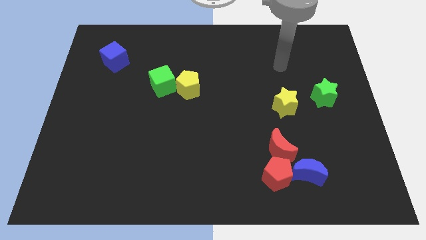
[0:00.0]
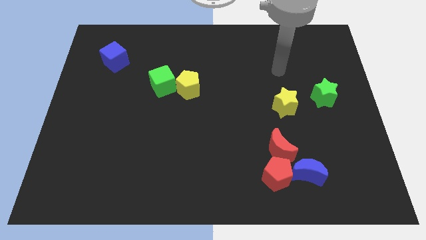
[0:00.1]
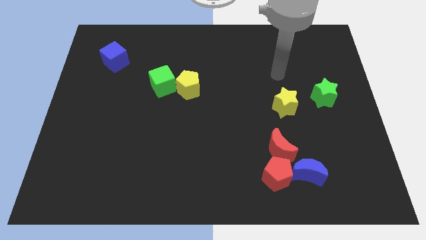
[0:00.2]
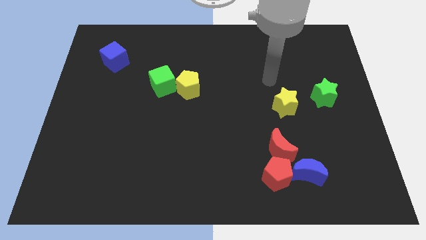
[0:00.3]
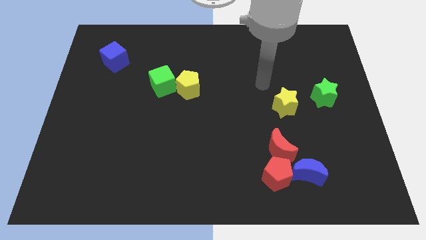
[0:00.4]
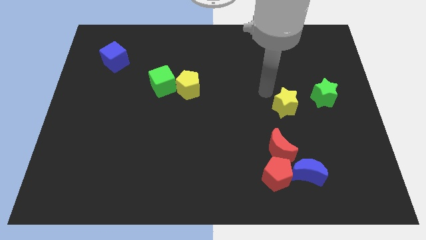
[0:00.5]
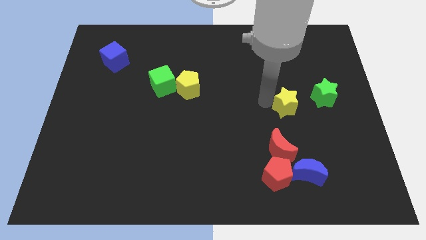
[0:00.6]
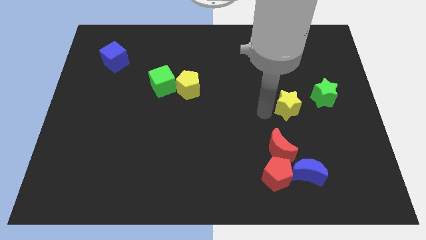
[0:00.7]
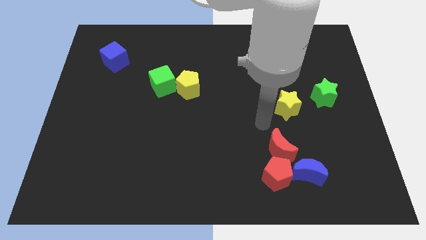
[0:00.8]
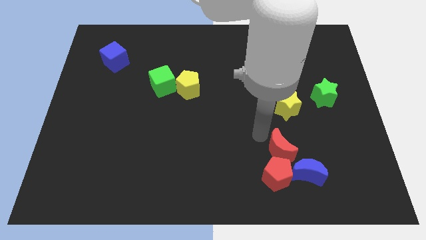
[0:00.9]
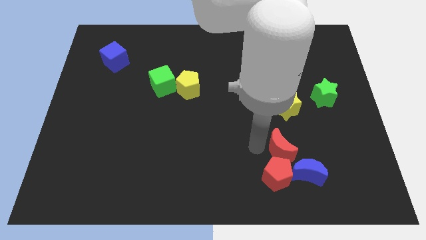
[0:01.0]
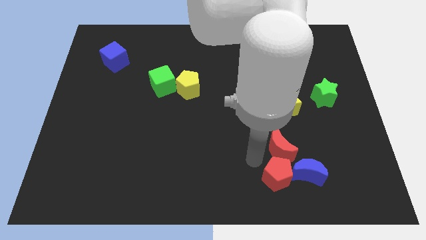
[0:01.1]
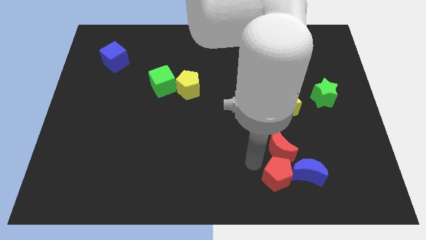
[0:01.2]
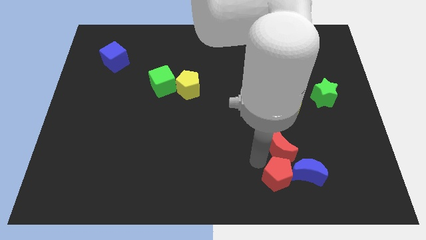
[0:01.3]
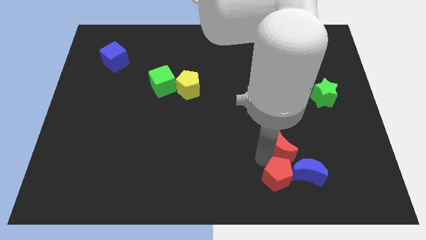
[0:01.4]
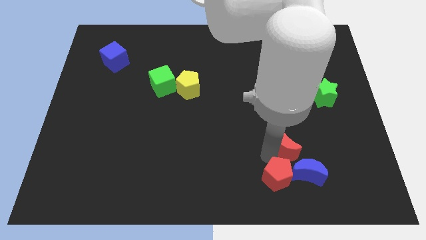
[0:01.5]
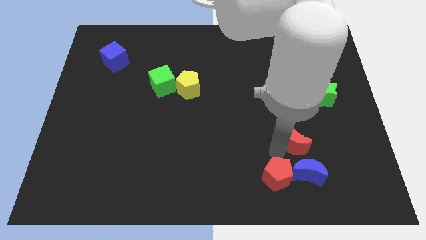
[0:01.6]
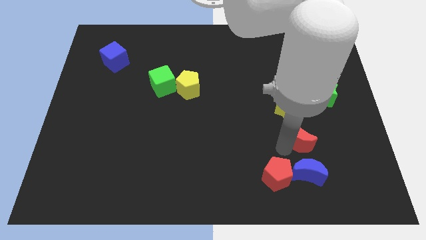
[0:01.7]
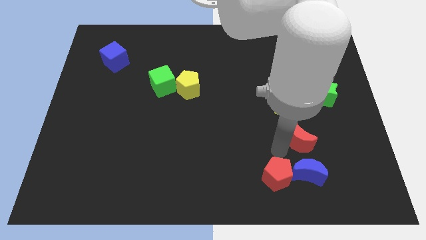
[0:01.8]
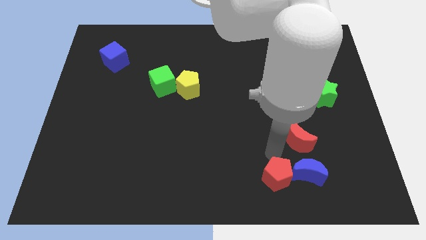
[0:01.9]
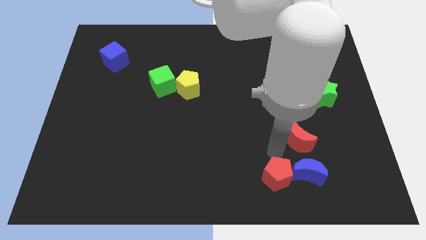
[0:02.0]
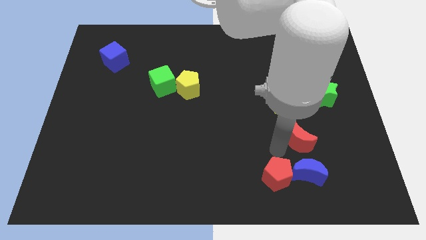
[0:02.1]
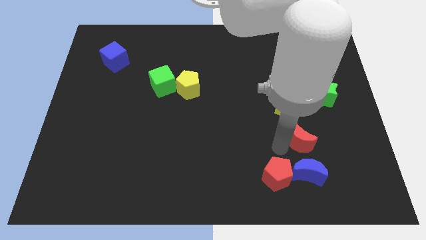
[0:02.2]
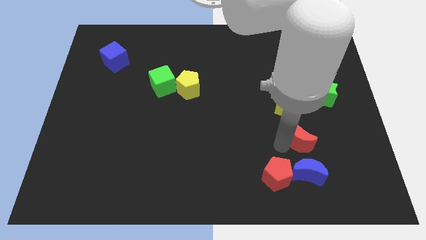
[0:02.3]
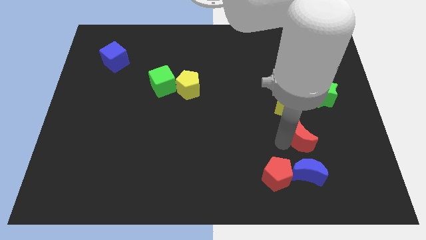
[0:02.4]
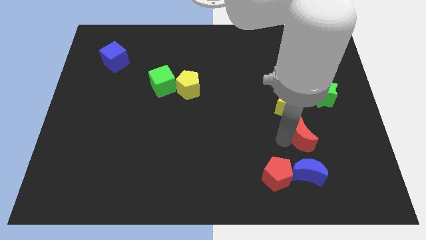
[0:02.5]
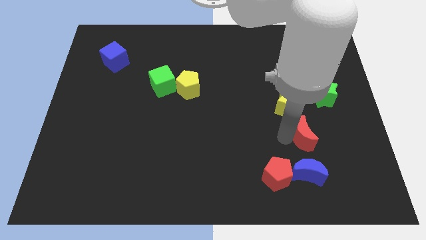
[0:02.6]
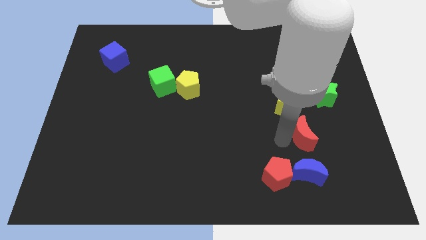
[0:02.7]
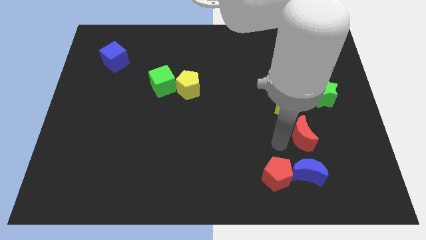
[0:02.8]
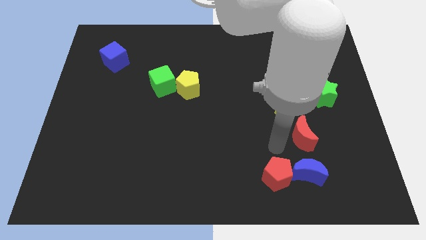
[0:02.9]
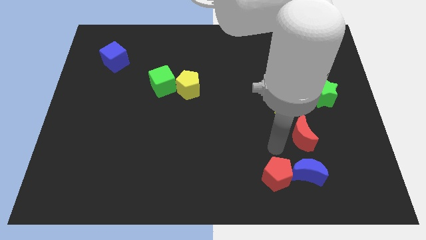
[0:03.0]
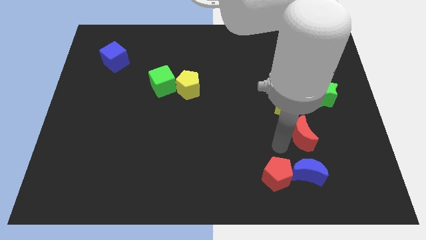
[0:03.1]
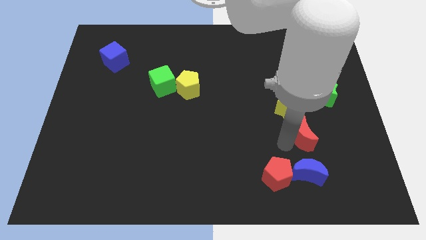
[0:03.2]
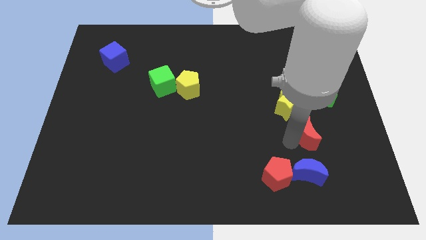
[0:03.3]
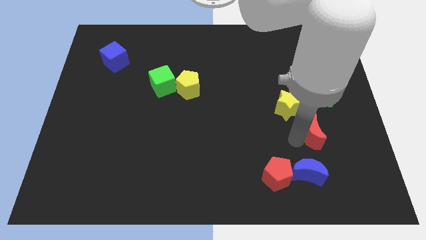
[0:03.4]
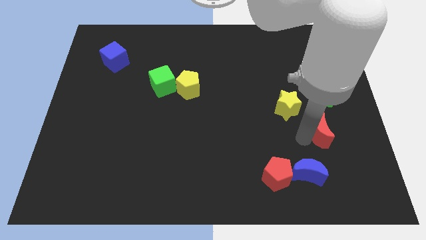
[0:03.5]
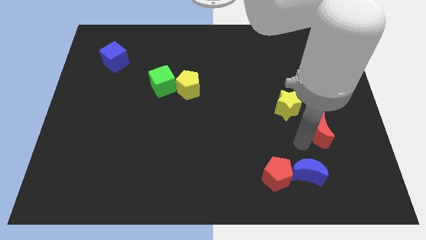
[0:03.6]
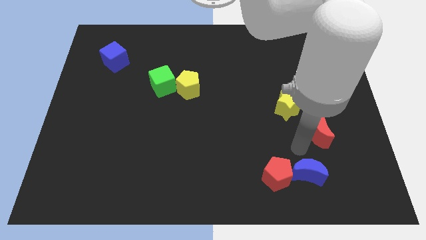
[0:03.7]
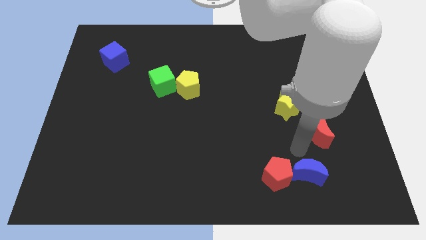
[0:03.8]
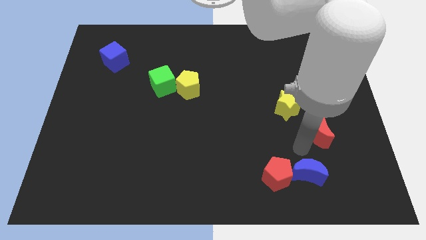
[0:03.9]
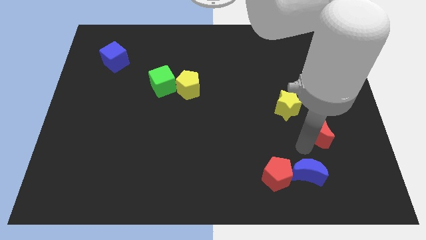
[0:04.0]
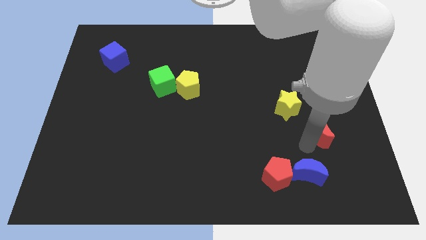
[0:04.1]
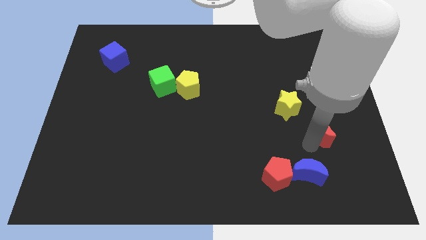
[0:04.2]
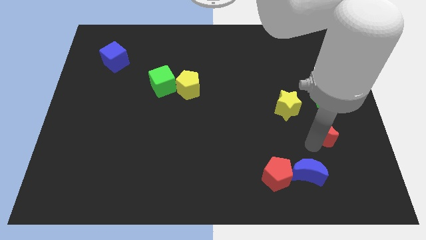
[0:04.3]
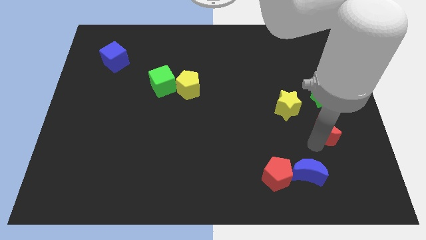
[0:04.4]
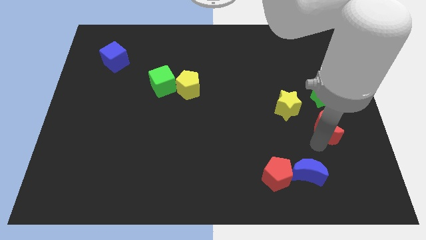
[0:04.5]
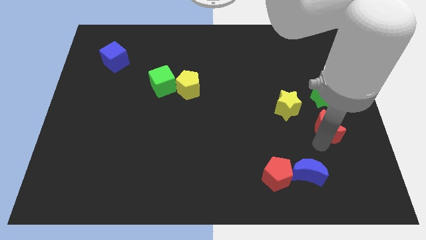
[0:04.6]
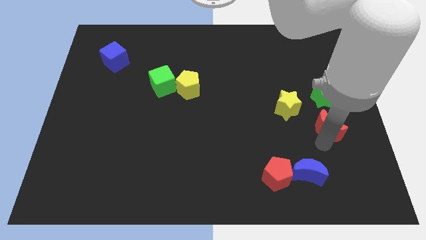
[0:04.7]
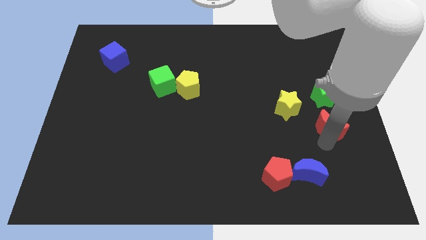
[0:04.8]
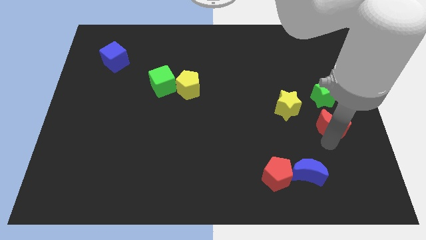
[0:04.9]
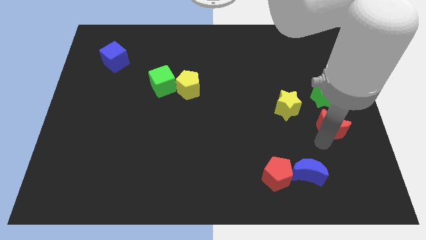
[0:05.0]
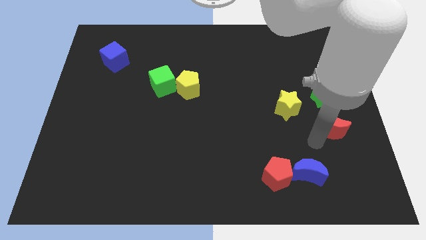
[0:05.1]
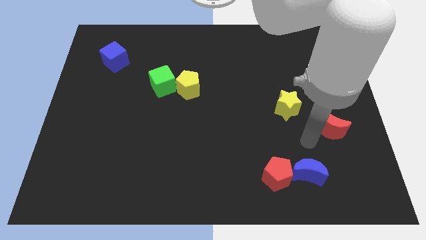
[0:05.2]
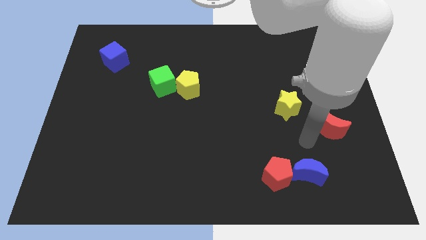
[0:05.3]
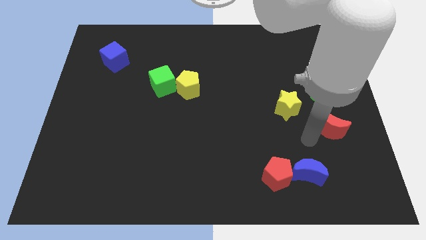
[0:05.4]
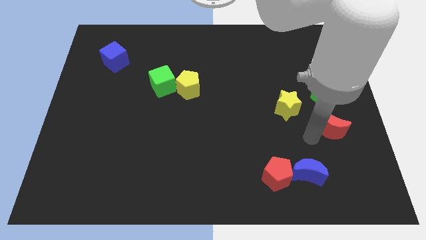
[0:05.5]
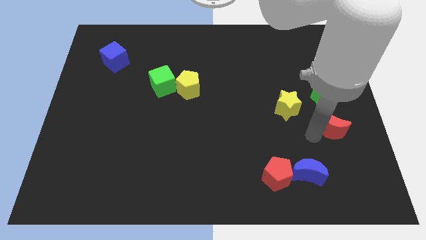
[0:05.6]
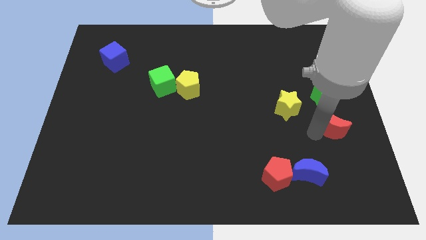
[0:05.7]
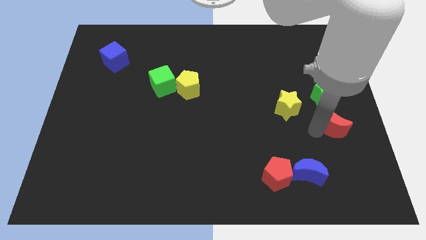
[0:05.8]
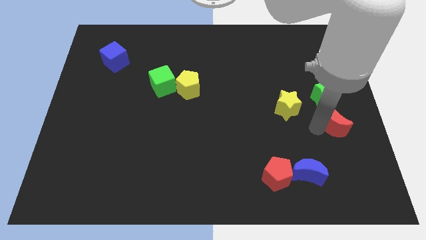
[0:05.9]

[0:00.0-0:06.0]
push the red moon to the right side of the board
